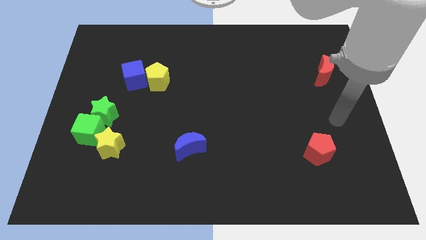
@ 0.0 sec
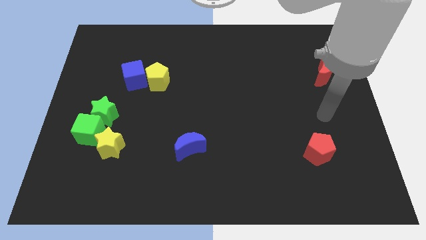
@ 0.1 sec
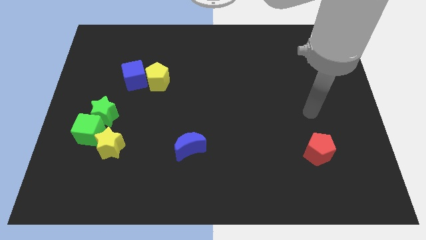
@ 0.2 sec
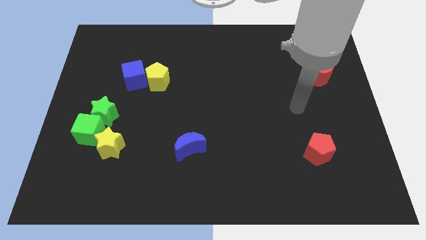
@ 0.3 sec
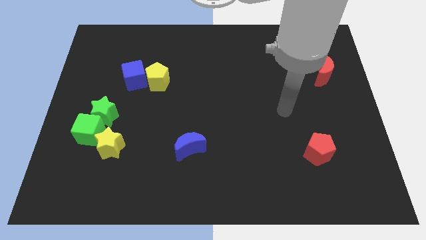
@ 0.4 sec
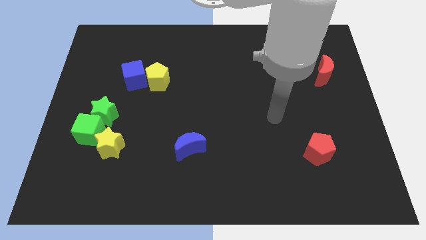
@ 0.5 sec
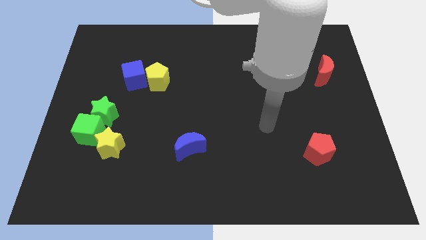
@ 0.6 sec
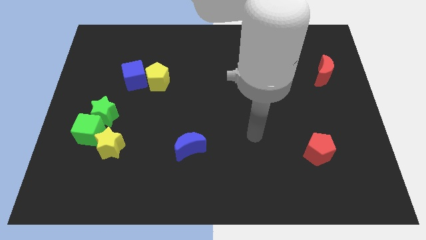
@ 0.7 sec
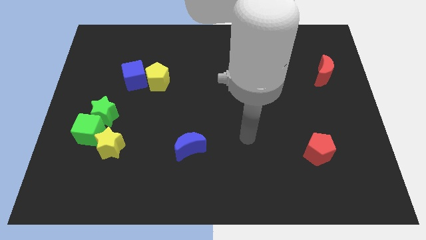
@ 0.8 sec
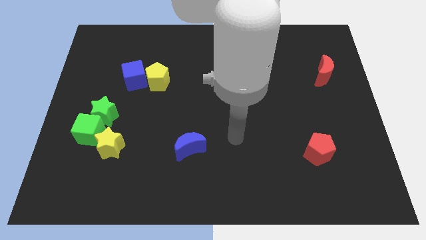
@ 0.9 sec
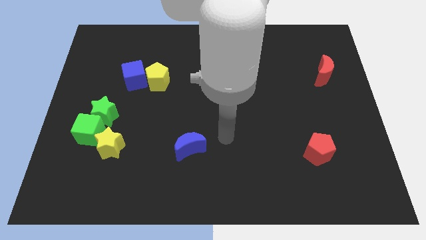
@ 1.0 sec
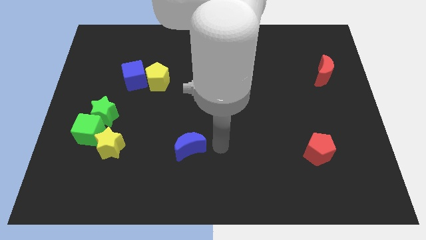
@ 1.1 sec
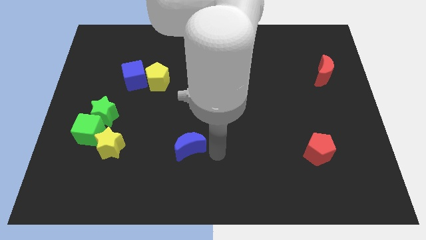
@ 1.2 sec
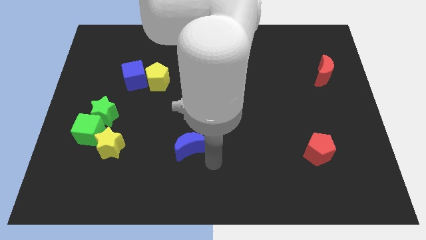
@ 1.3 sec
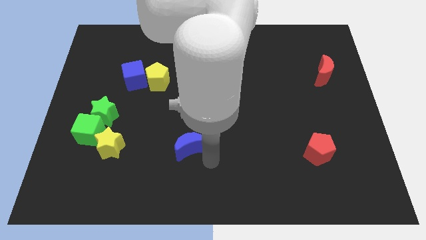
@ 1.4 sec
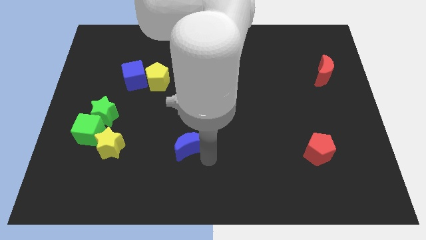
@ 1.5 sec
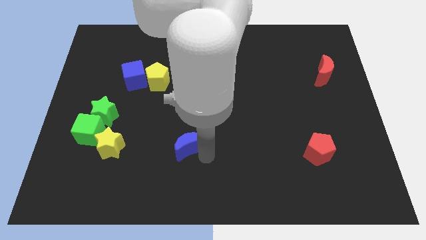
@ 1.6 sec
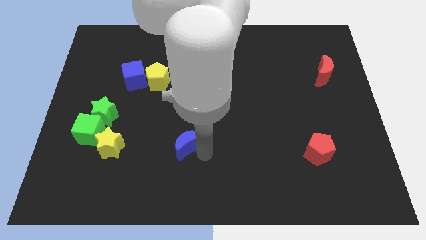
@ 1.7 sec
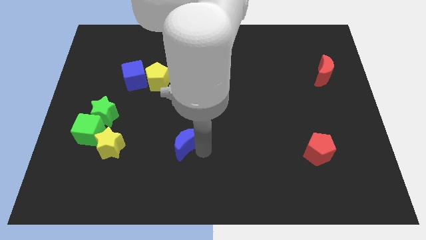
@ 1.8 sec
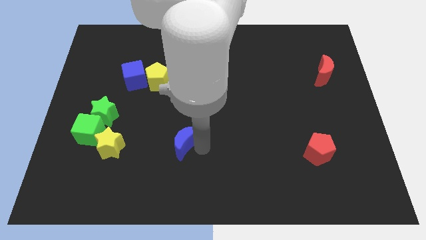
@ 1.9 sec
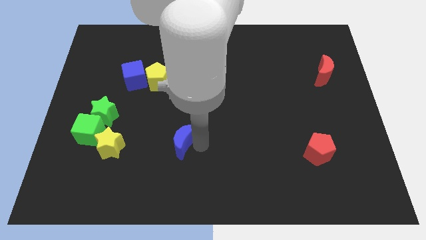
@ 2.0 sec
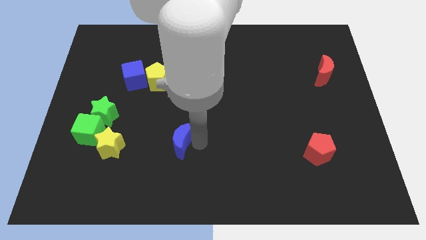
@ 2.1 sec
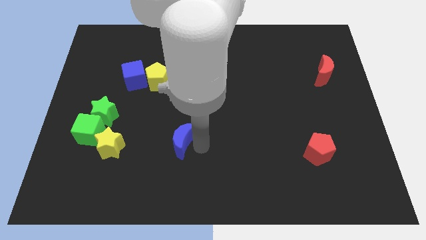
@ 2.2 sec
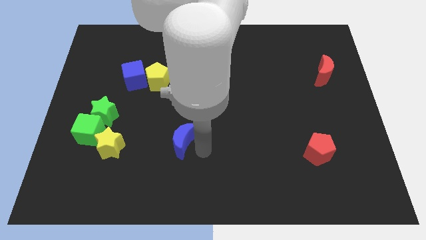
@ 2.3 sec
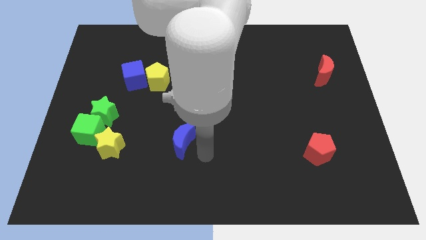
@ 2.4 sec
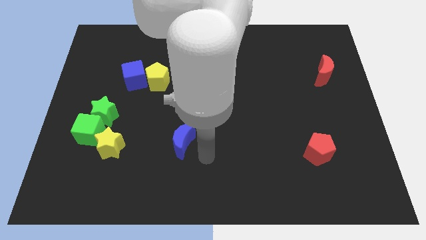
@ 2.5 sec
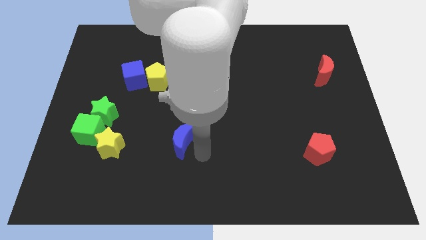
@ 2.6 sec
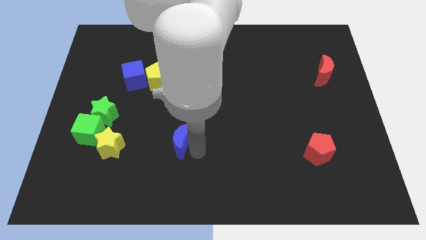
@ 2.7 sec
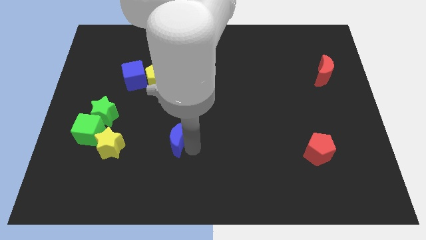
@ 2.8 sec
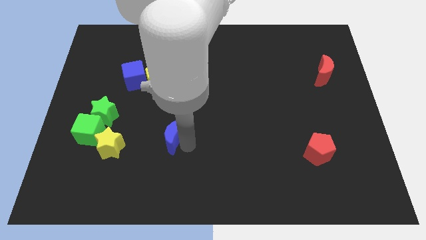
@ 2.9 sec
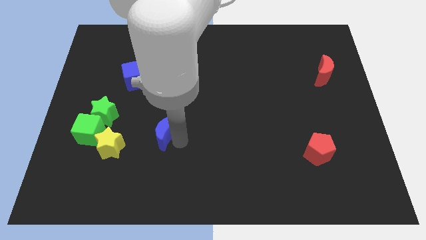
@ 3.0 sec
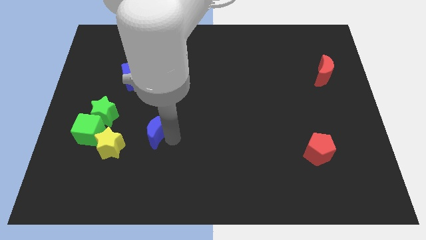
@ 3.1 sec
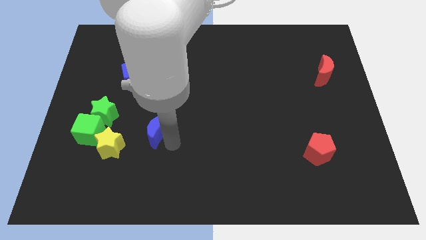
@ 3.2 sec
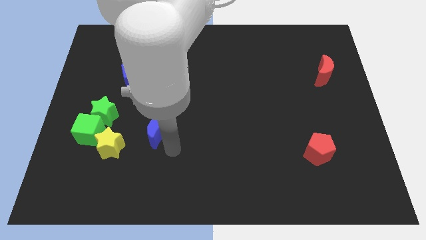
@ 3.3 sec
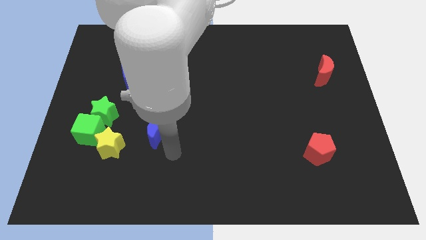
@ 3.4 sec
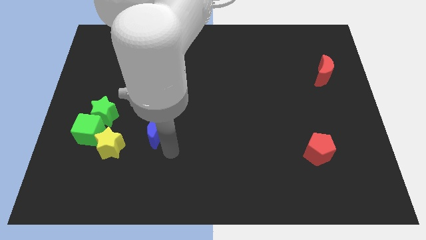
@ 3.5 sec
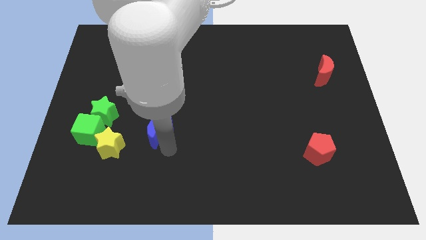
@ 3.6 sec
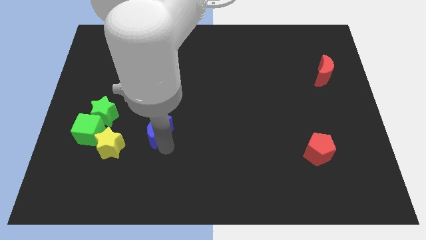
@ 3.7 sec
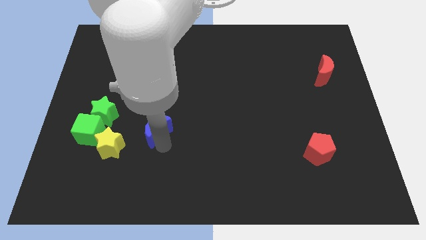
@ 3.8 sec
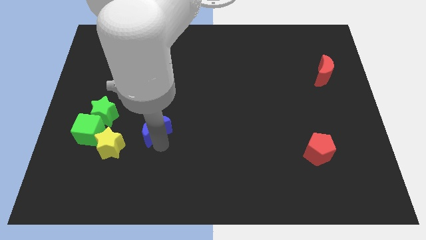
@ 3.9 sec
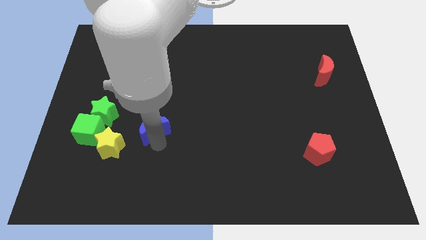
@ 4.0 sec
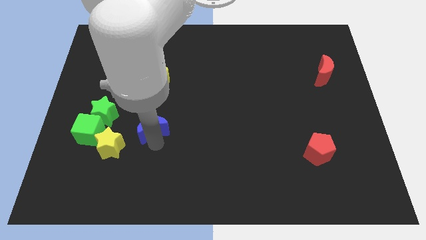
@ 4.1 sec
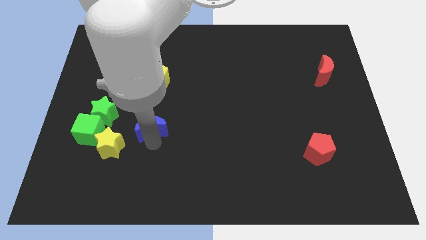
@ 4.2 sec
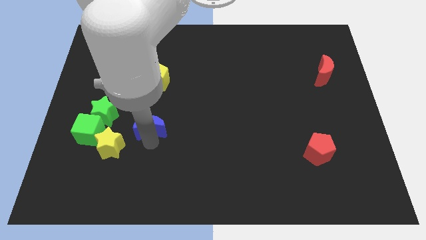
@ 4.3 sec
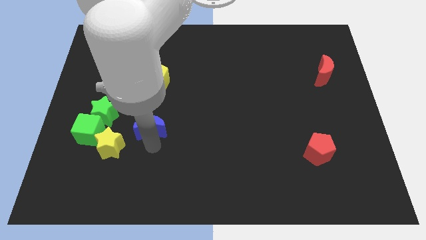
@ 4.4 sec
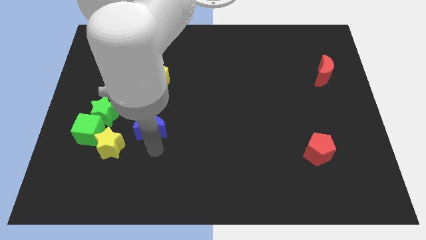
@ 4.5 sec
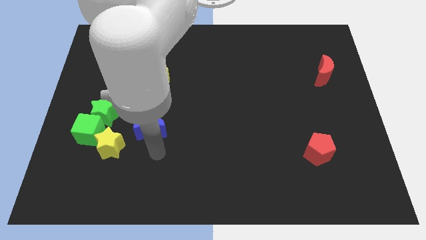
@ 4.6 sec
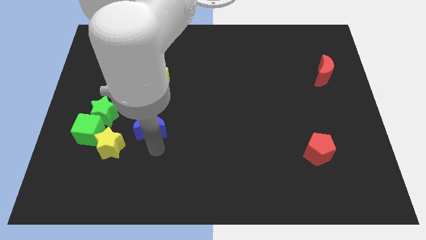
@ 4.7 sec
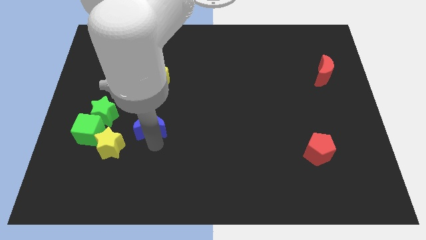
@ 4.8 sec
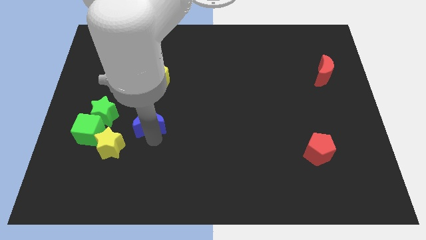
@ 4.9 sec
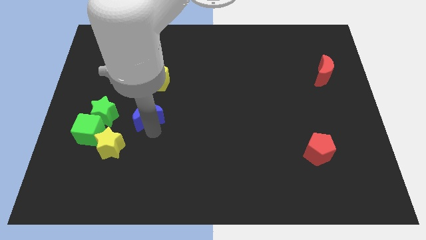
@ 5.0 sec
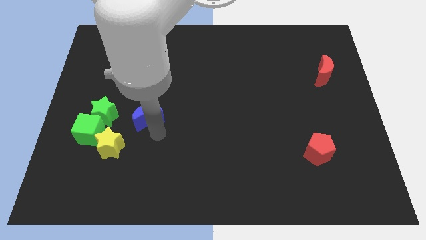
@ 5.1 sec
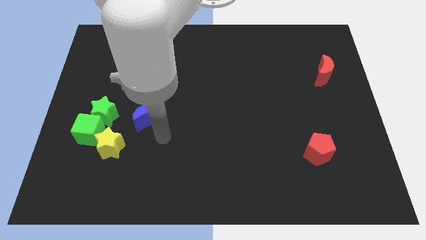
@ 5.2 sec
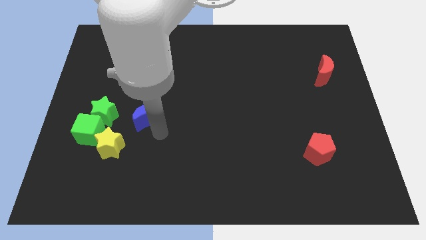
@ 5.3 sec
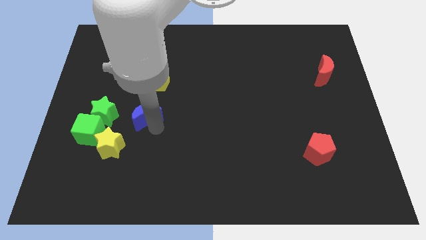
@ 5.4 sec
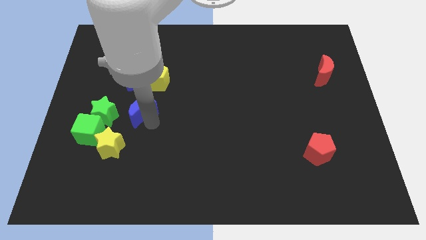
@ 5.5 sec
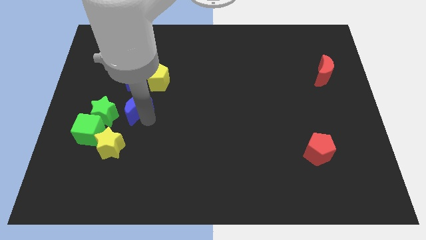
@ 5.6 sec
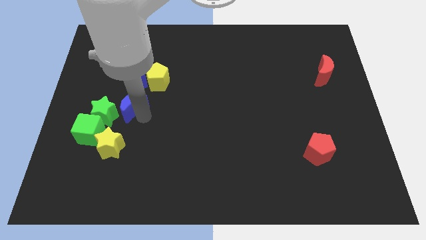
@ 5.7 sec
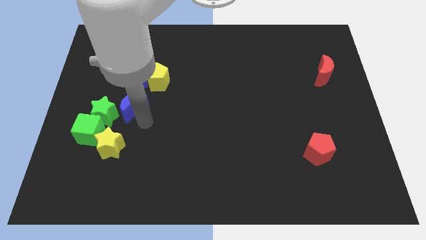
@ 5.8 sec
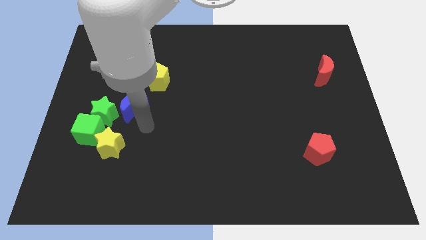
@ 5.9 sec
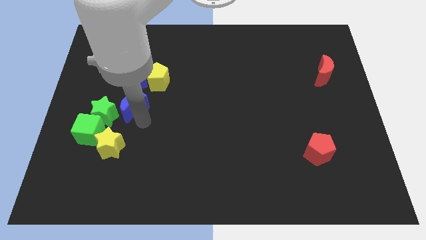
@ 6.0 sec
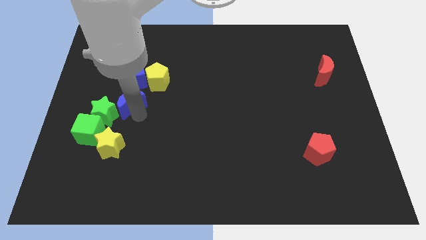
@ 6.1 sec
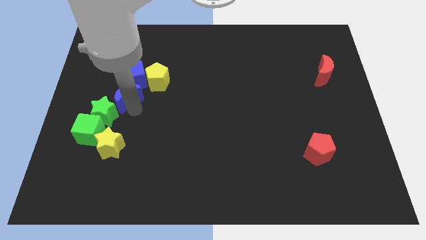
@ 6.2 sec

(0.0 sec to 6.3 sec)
push the blue moon upwards and then left

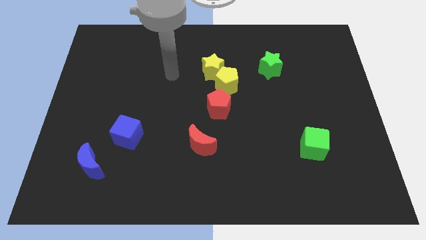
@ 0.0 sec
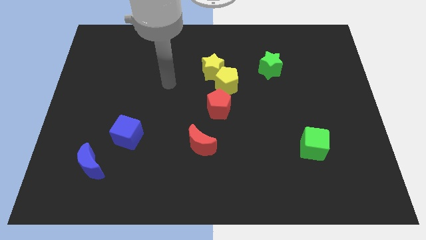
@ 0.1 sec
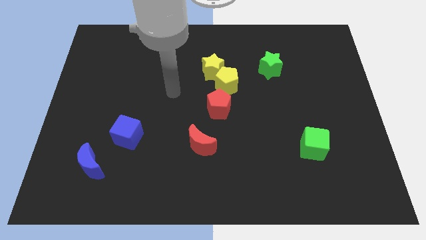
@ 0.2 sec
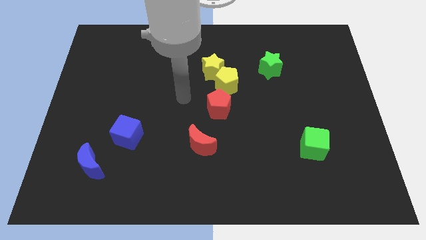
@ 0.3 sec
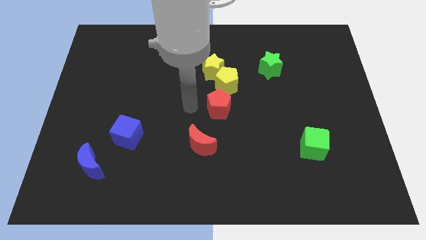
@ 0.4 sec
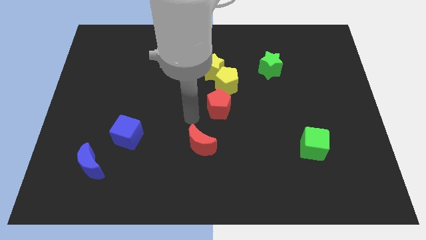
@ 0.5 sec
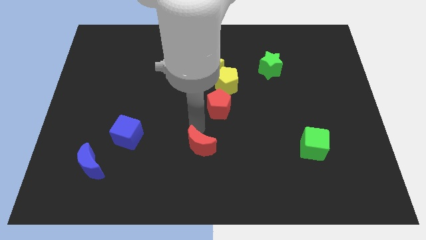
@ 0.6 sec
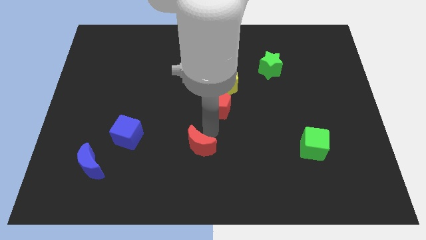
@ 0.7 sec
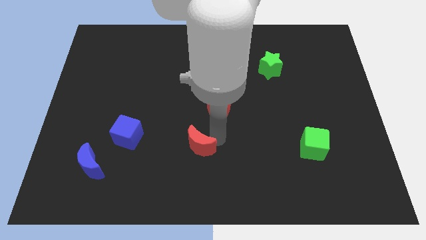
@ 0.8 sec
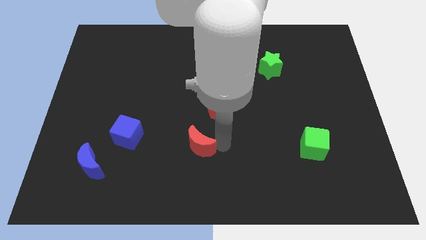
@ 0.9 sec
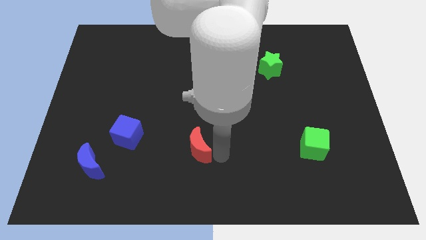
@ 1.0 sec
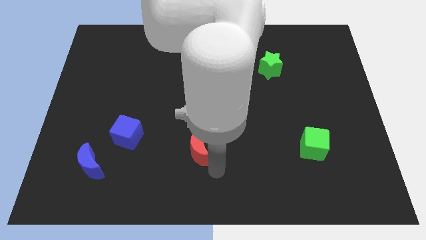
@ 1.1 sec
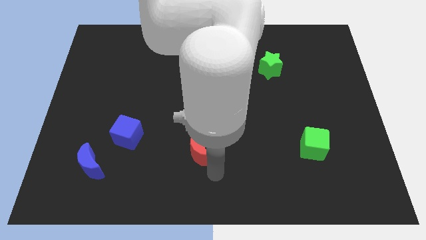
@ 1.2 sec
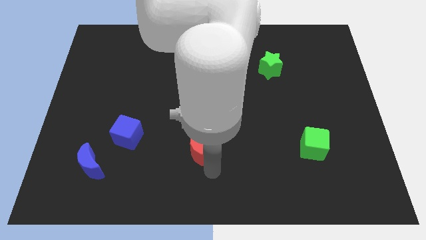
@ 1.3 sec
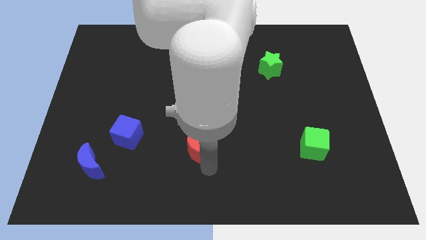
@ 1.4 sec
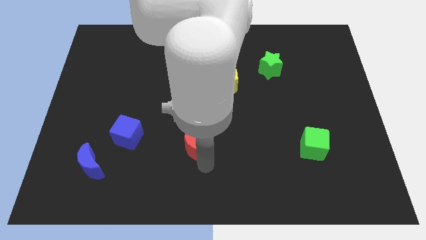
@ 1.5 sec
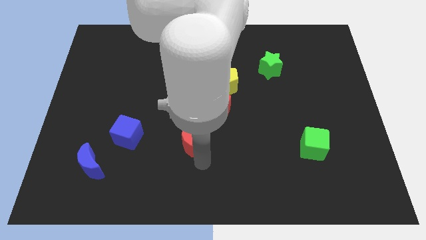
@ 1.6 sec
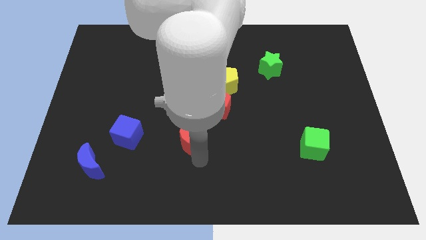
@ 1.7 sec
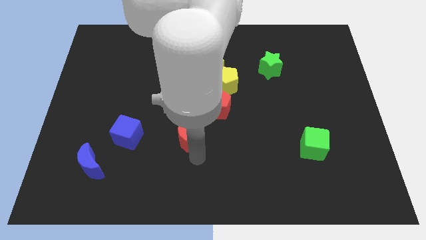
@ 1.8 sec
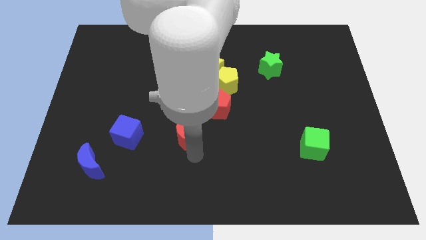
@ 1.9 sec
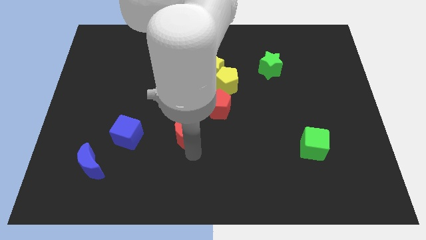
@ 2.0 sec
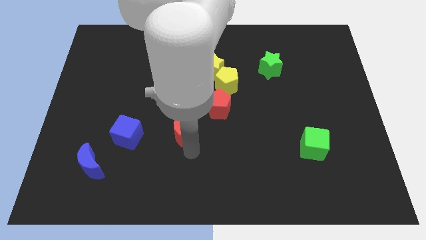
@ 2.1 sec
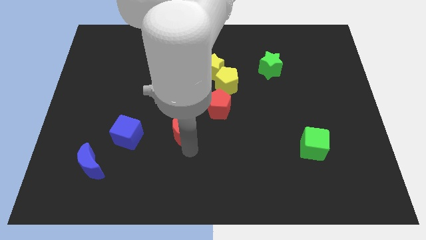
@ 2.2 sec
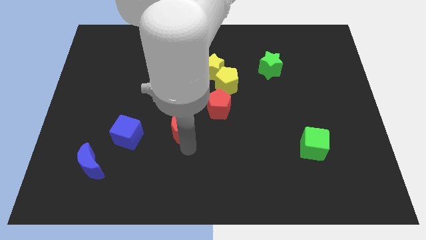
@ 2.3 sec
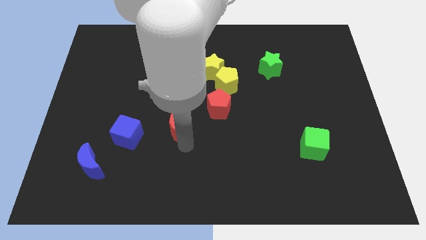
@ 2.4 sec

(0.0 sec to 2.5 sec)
slide the red moon upwards and to the left diagonally somewhat
